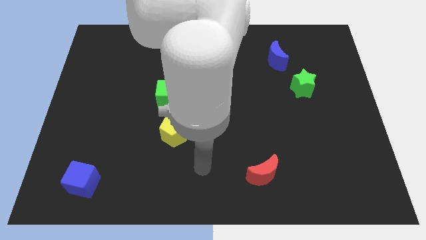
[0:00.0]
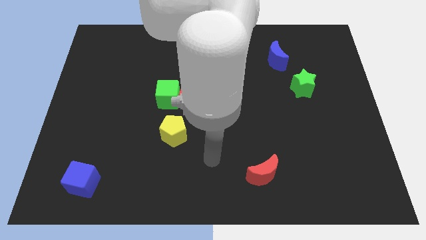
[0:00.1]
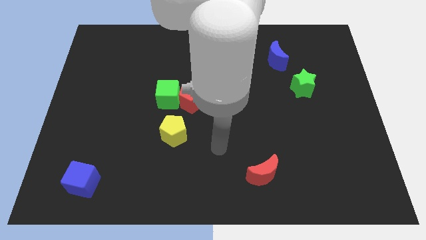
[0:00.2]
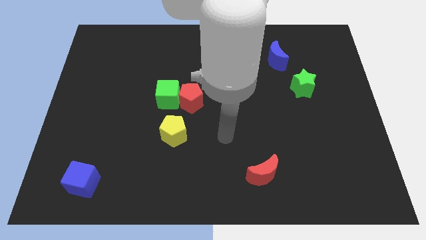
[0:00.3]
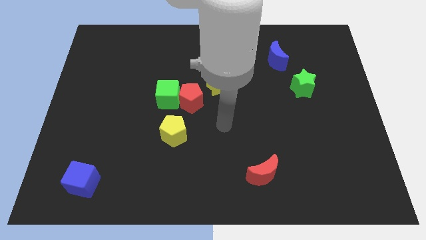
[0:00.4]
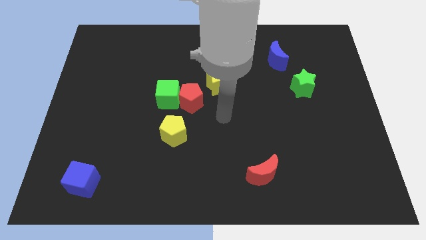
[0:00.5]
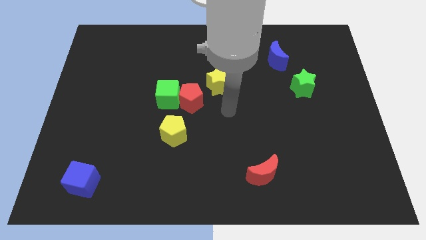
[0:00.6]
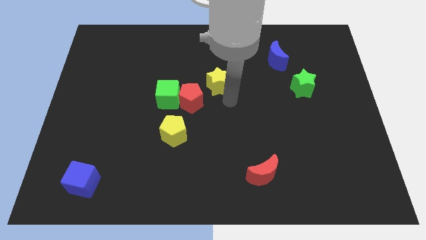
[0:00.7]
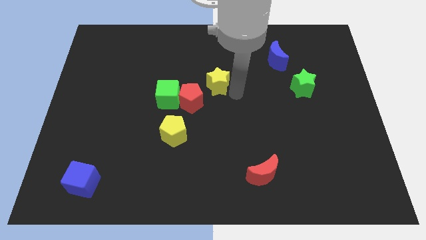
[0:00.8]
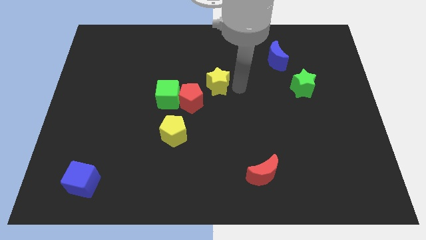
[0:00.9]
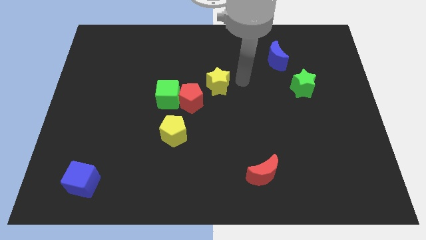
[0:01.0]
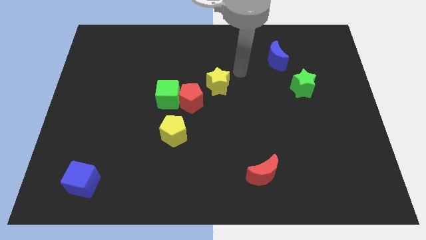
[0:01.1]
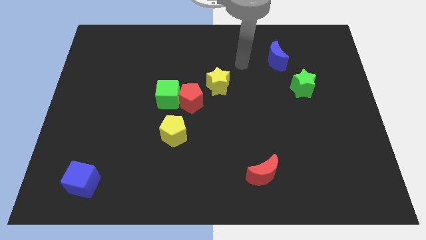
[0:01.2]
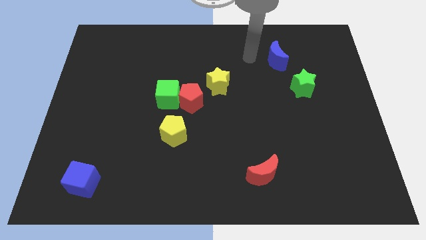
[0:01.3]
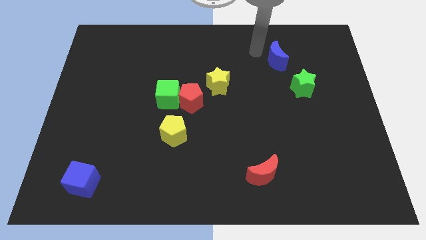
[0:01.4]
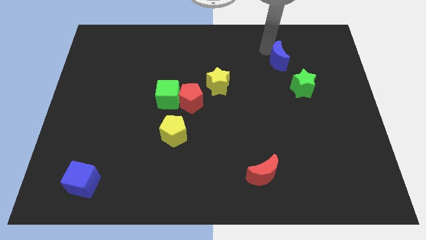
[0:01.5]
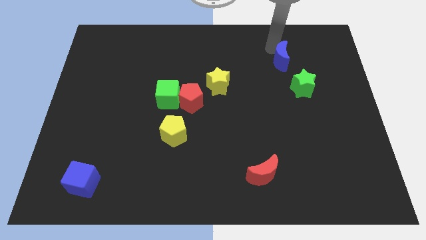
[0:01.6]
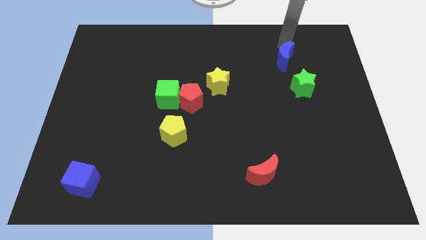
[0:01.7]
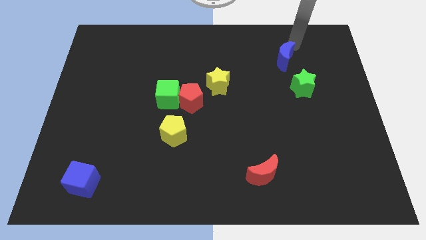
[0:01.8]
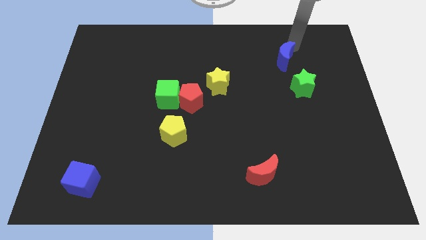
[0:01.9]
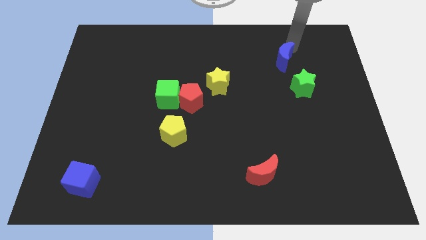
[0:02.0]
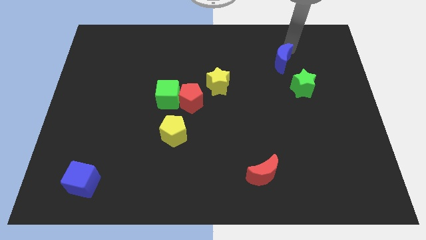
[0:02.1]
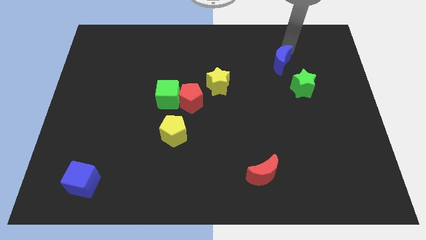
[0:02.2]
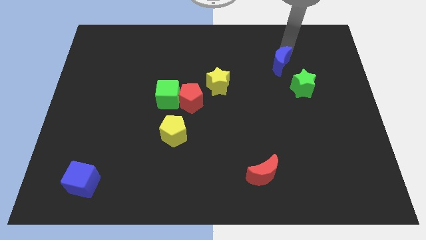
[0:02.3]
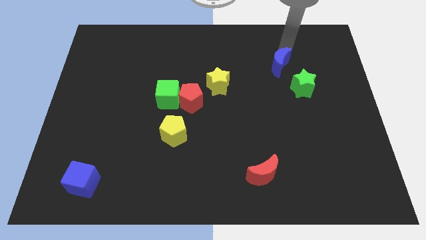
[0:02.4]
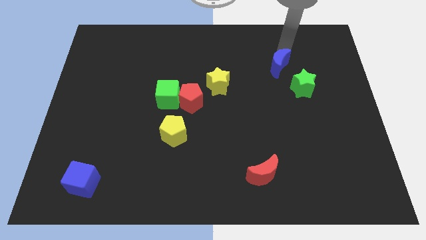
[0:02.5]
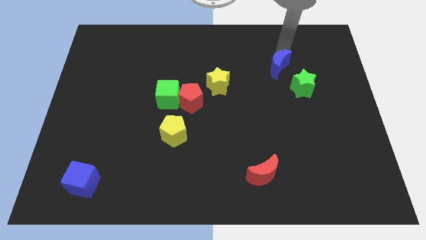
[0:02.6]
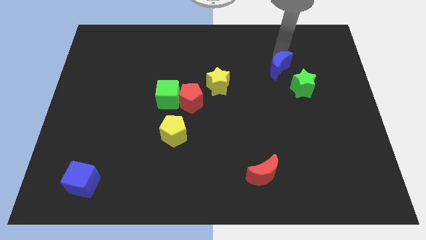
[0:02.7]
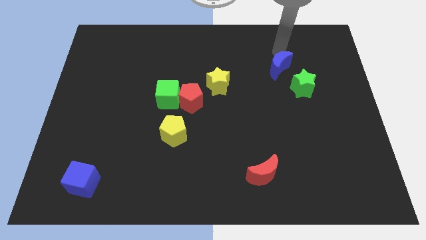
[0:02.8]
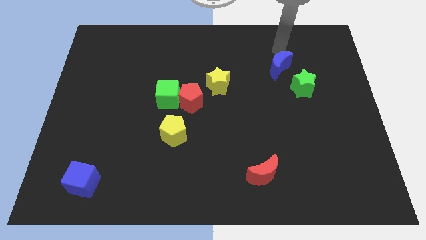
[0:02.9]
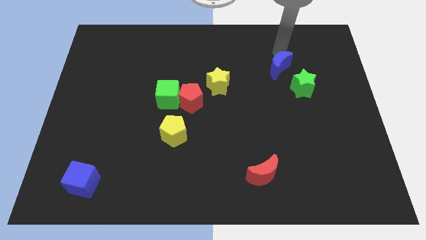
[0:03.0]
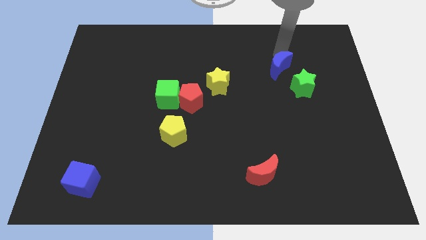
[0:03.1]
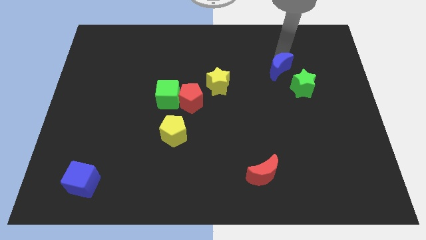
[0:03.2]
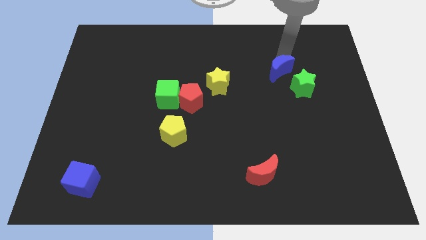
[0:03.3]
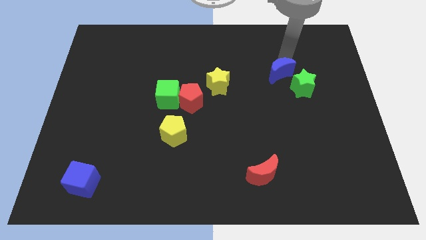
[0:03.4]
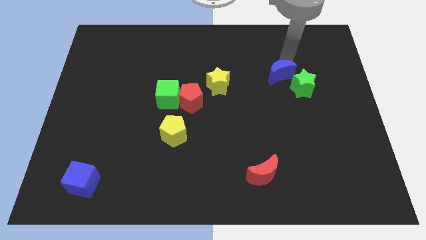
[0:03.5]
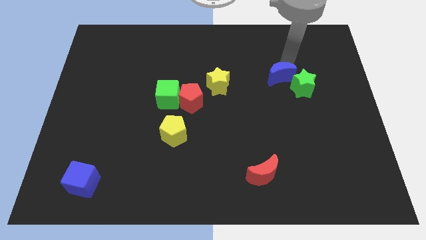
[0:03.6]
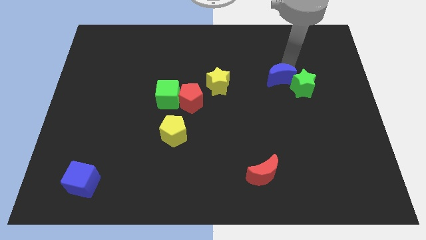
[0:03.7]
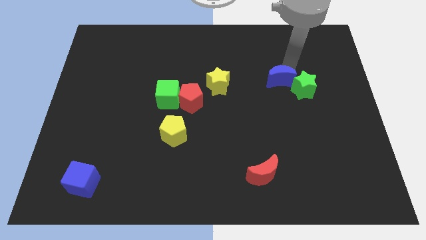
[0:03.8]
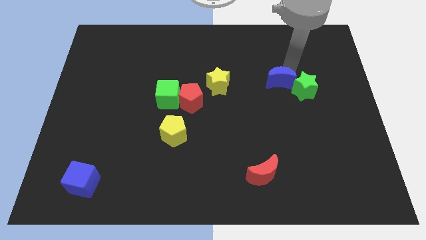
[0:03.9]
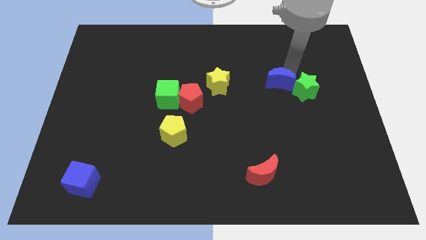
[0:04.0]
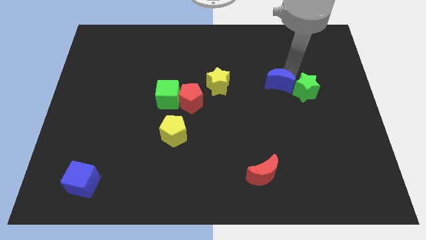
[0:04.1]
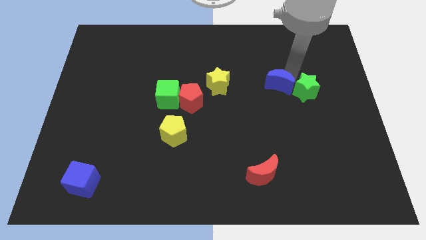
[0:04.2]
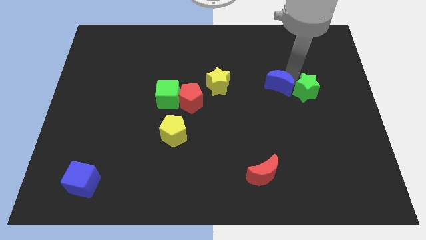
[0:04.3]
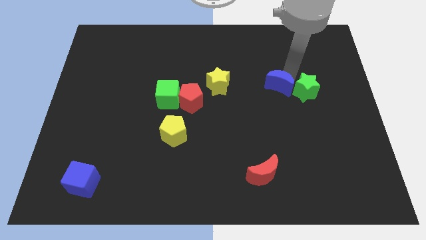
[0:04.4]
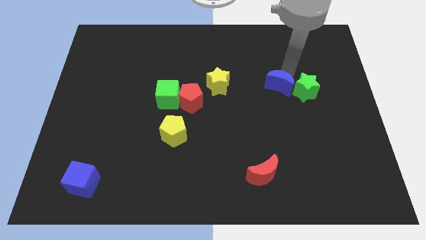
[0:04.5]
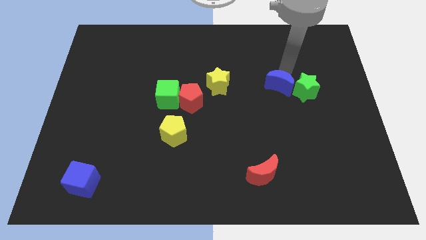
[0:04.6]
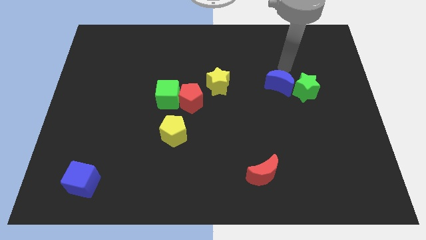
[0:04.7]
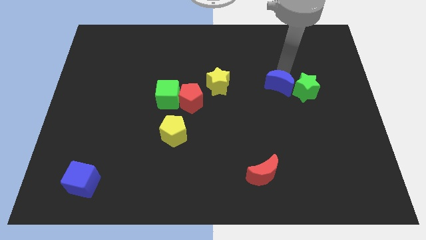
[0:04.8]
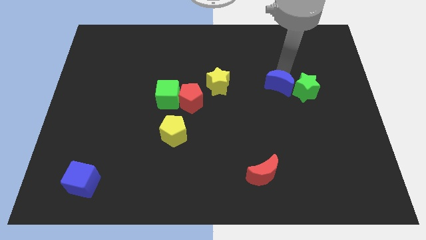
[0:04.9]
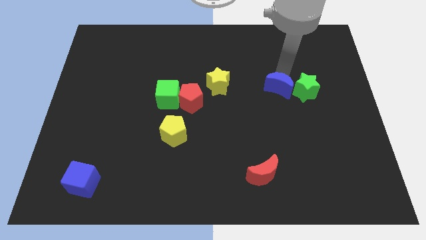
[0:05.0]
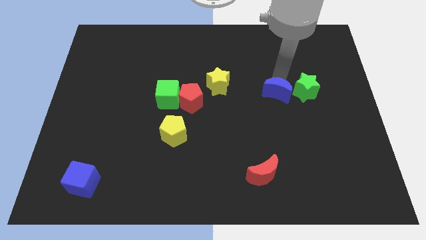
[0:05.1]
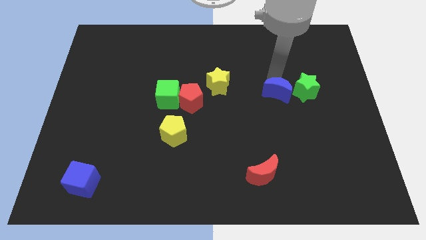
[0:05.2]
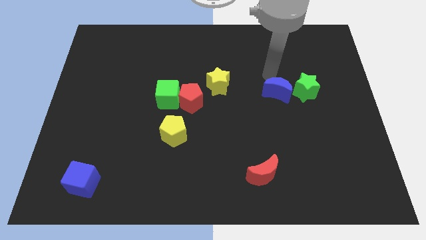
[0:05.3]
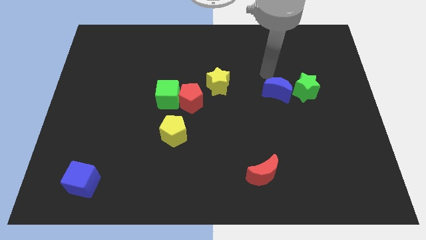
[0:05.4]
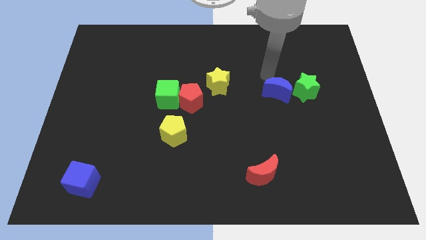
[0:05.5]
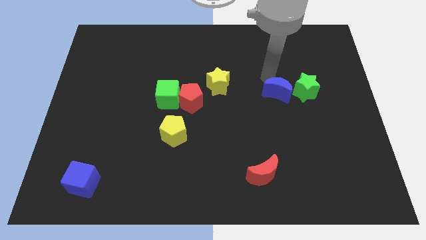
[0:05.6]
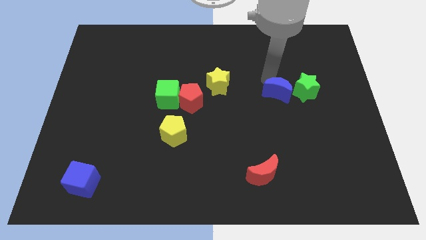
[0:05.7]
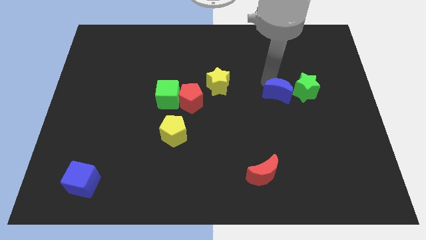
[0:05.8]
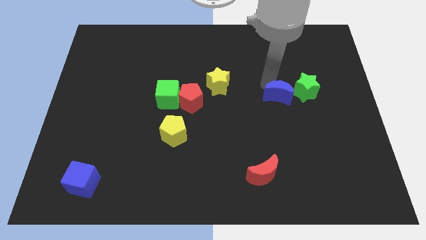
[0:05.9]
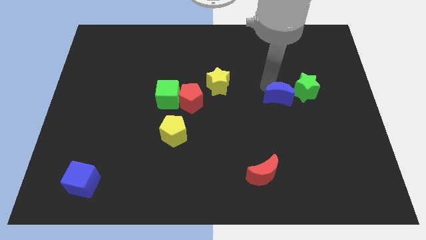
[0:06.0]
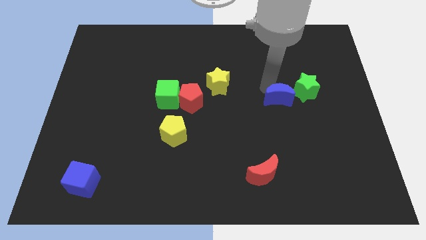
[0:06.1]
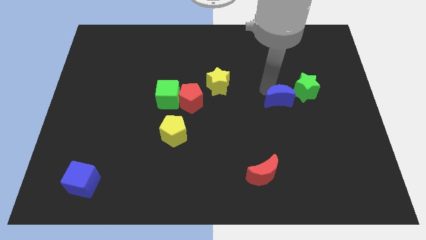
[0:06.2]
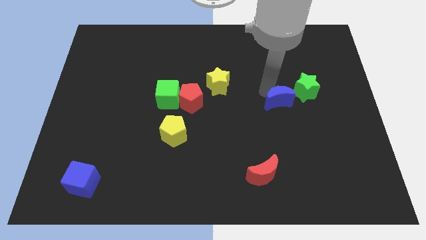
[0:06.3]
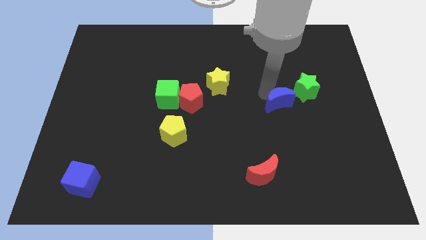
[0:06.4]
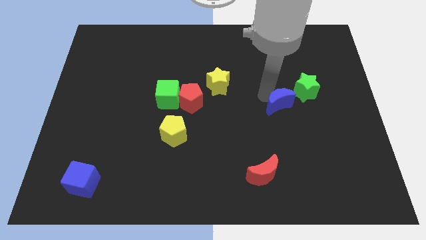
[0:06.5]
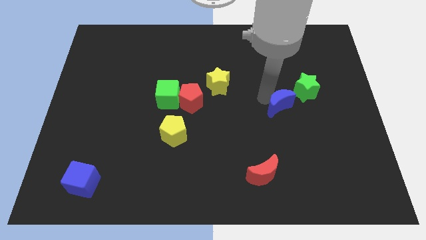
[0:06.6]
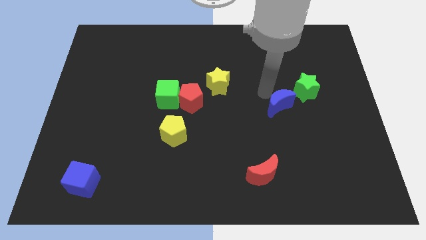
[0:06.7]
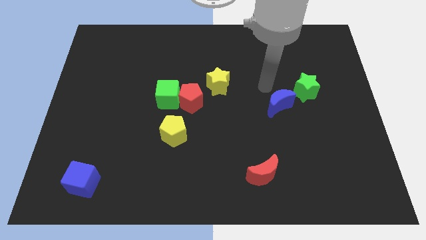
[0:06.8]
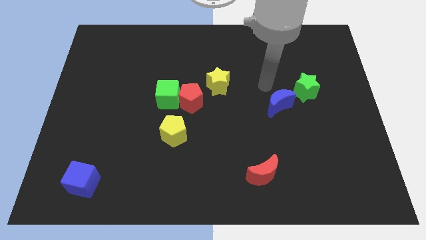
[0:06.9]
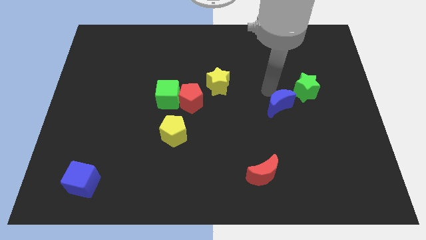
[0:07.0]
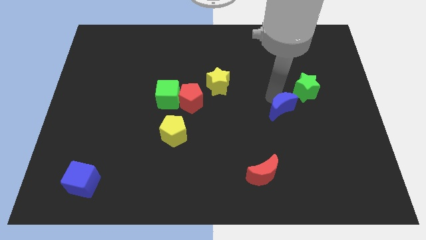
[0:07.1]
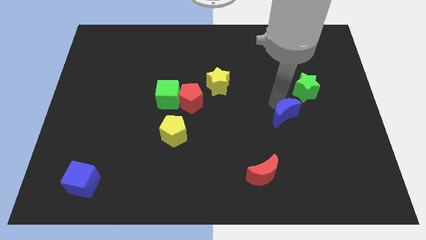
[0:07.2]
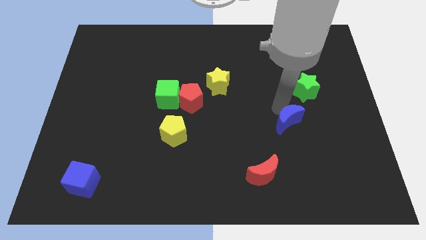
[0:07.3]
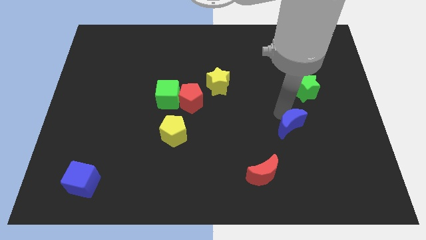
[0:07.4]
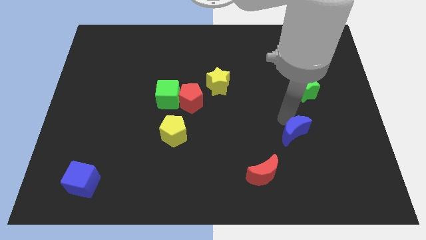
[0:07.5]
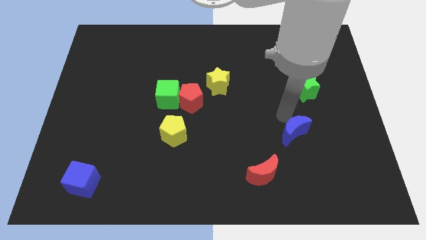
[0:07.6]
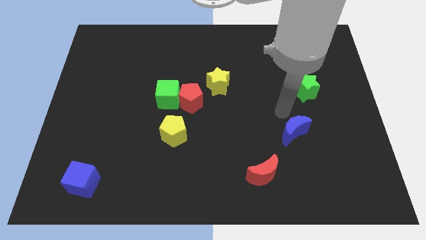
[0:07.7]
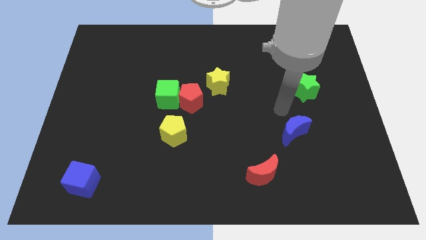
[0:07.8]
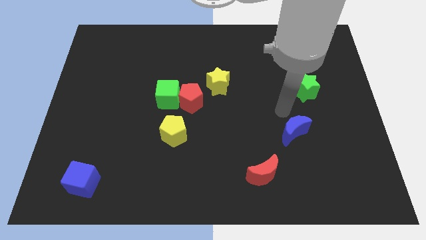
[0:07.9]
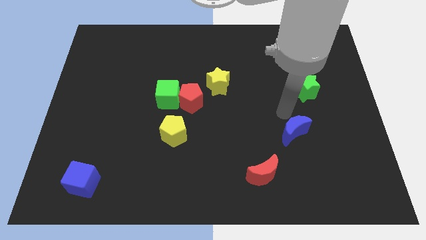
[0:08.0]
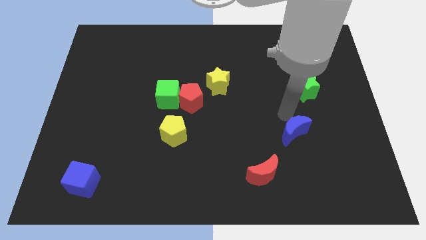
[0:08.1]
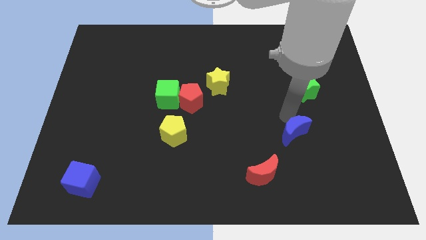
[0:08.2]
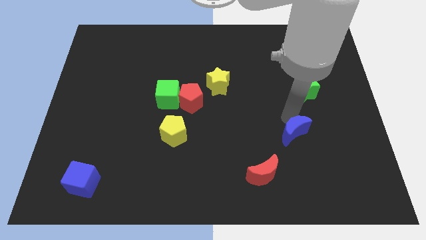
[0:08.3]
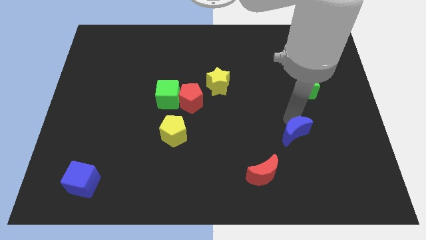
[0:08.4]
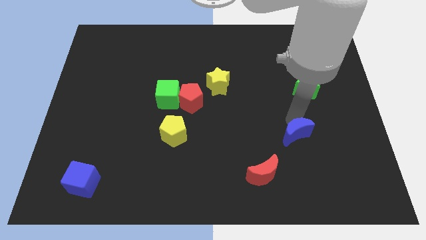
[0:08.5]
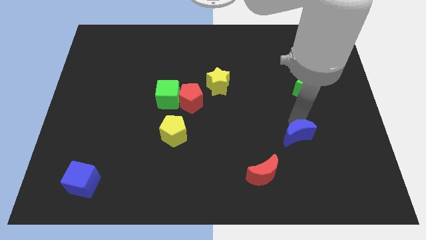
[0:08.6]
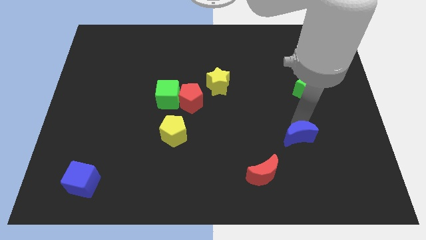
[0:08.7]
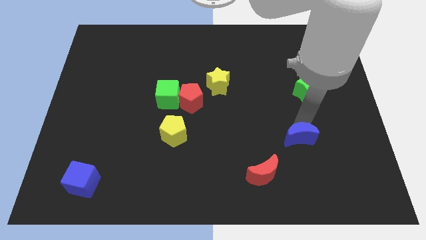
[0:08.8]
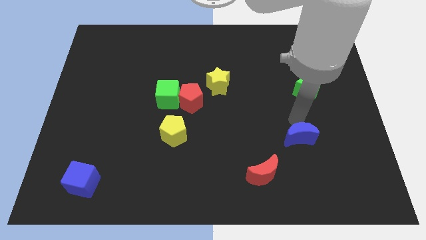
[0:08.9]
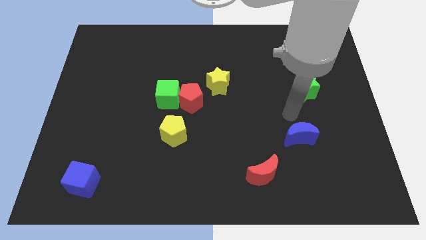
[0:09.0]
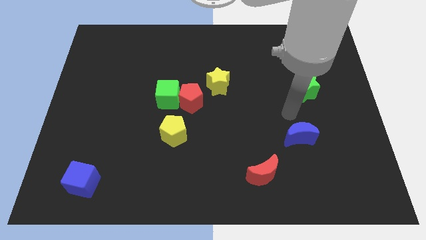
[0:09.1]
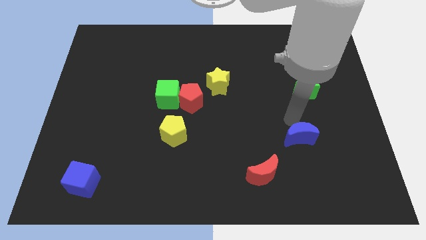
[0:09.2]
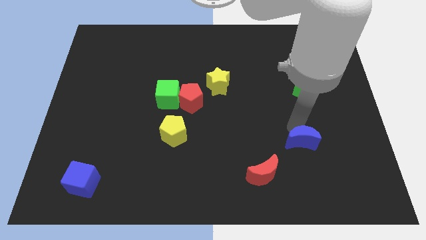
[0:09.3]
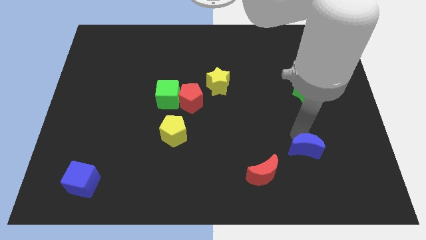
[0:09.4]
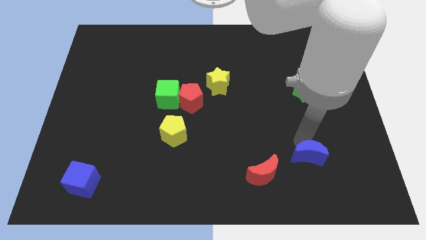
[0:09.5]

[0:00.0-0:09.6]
push the blue moon right of the red moon
